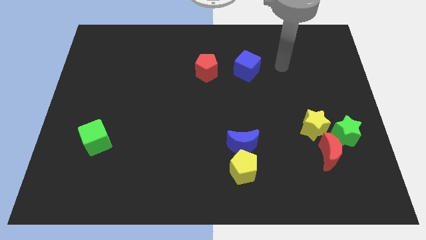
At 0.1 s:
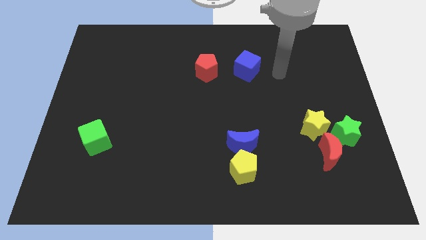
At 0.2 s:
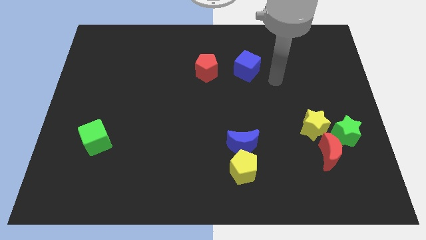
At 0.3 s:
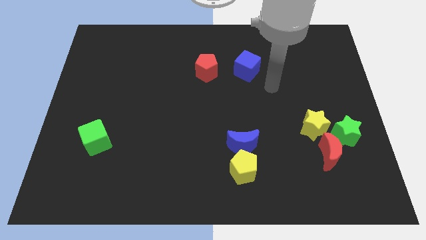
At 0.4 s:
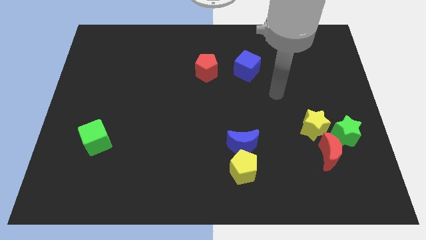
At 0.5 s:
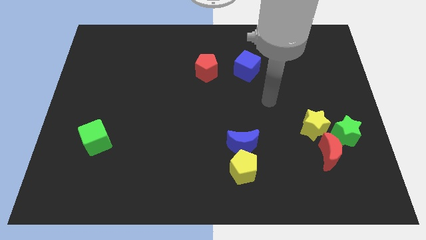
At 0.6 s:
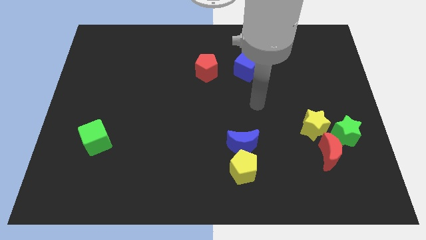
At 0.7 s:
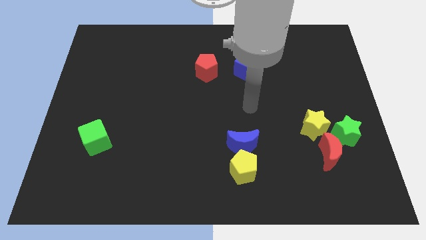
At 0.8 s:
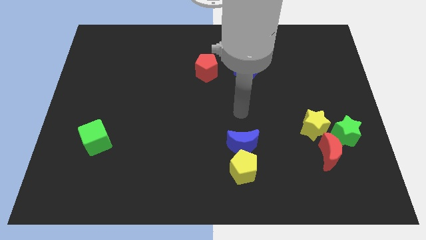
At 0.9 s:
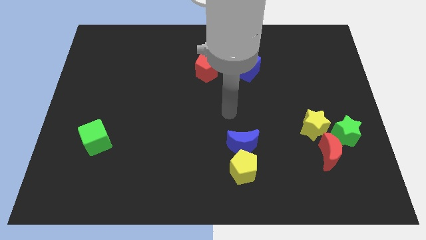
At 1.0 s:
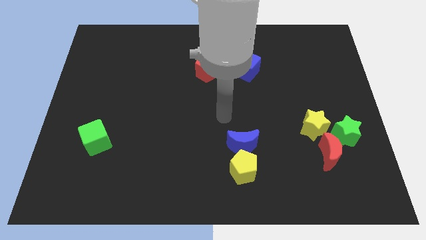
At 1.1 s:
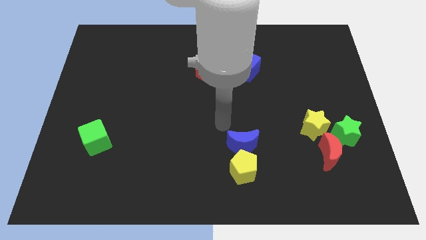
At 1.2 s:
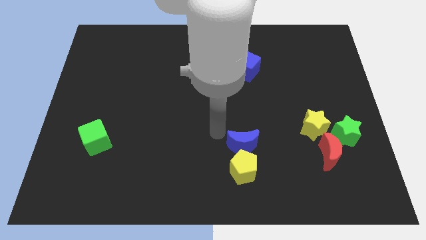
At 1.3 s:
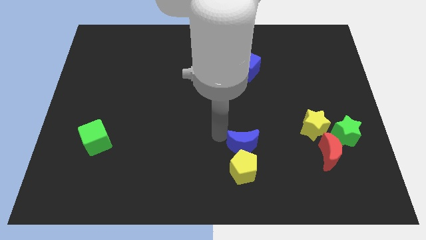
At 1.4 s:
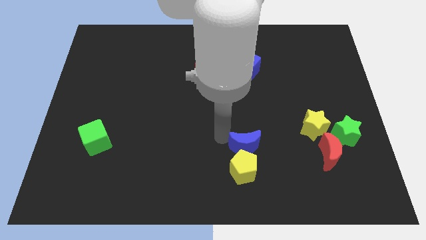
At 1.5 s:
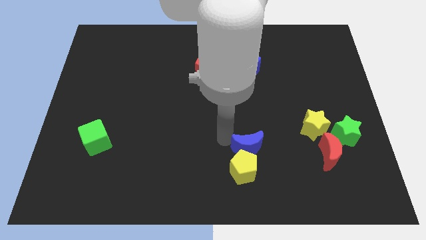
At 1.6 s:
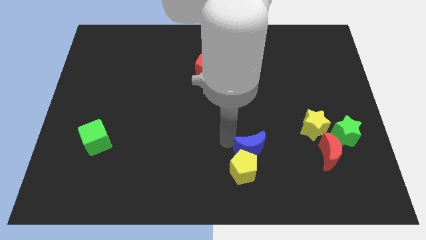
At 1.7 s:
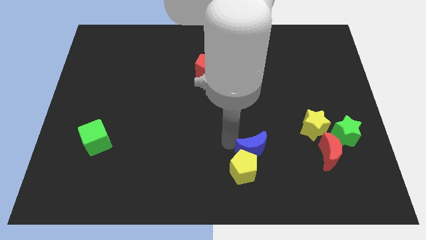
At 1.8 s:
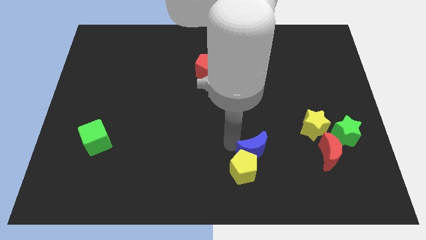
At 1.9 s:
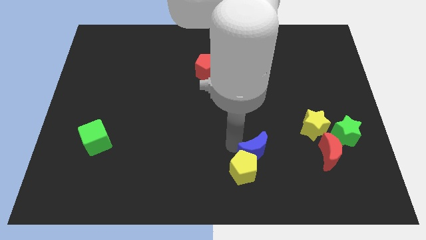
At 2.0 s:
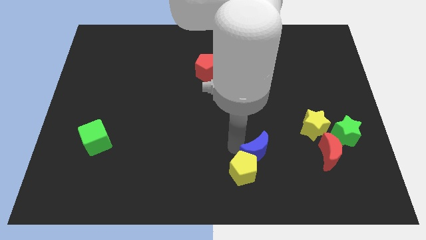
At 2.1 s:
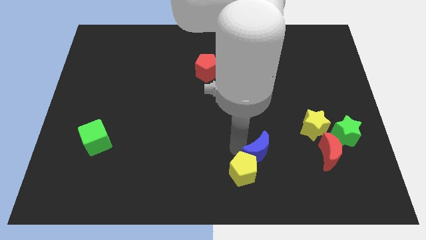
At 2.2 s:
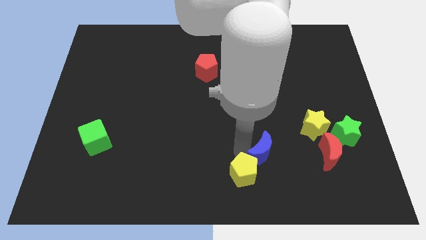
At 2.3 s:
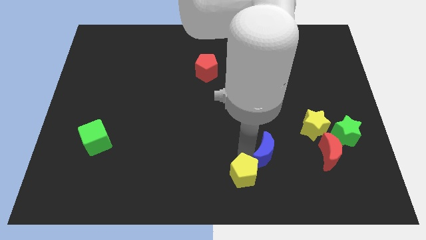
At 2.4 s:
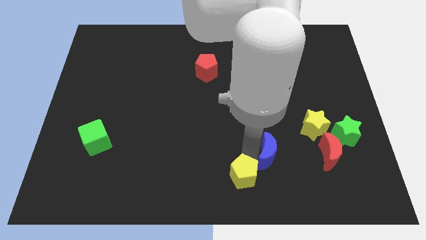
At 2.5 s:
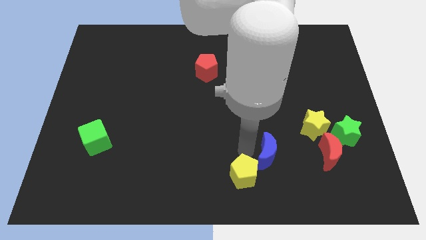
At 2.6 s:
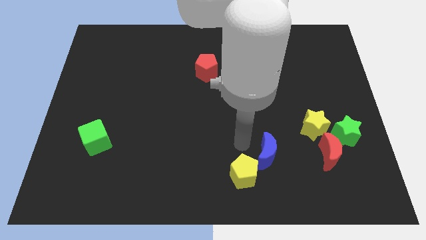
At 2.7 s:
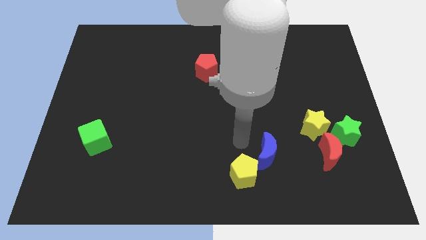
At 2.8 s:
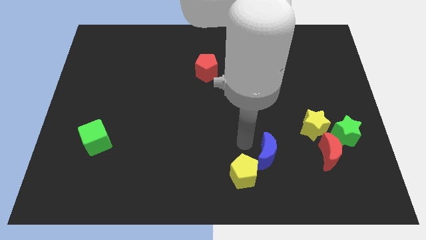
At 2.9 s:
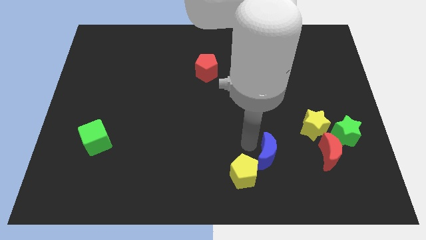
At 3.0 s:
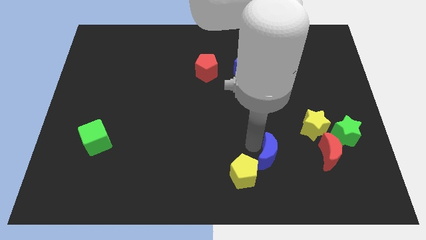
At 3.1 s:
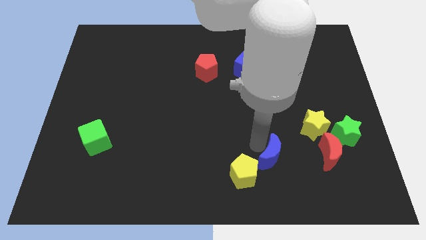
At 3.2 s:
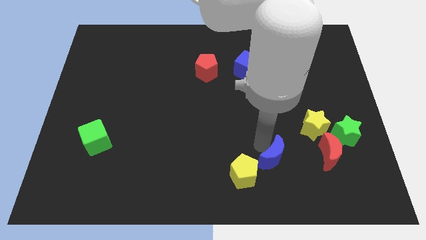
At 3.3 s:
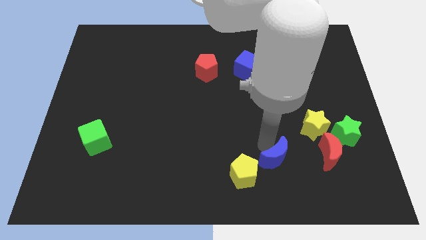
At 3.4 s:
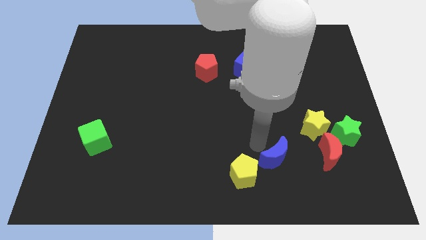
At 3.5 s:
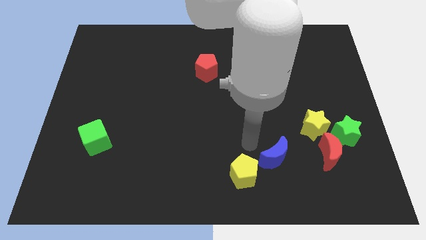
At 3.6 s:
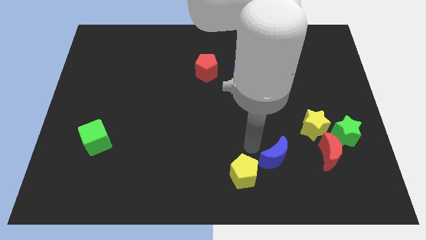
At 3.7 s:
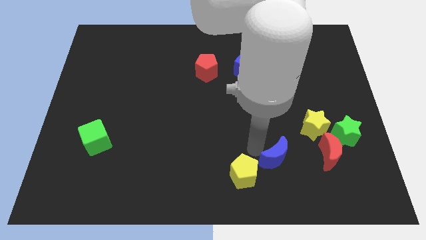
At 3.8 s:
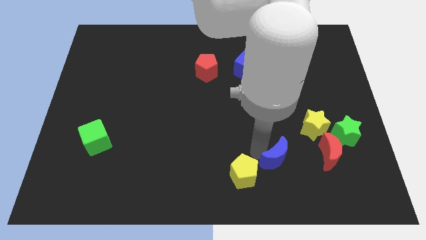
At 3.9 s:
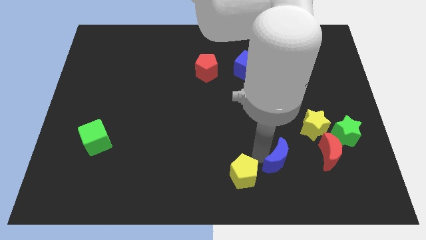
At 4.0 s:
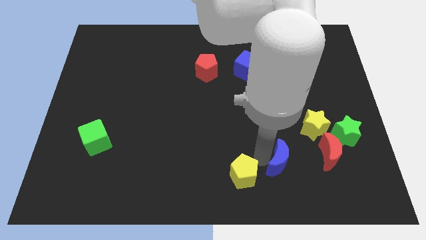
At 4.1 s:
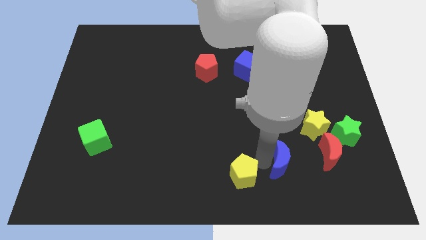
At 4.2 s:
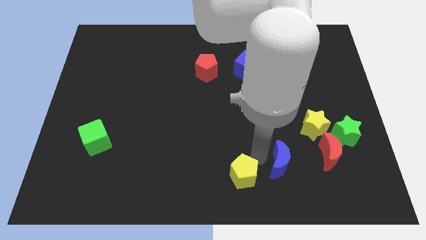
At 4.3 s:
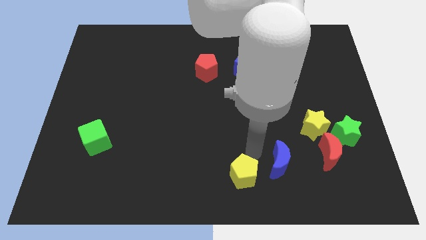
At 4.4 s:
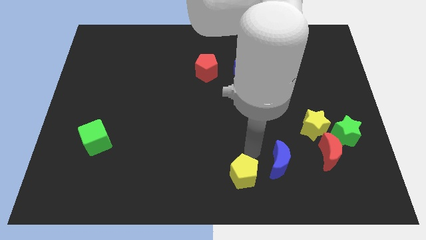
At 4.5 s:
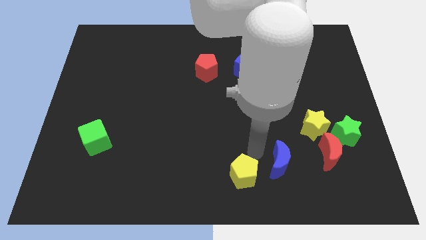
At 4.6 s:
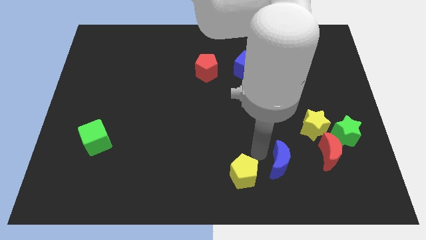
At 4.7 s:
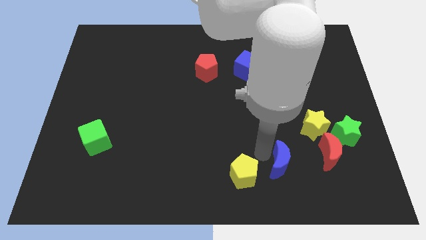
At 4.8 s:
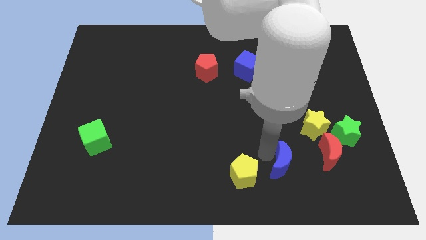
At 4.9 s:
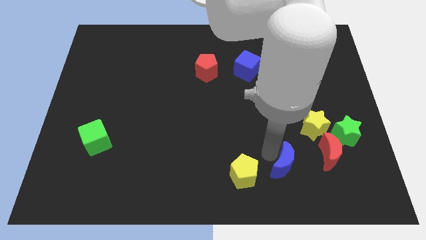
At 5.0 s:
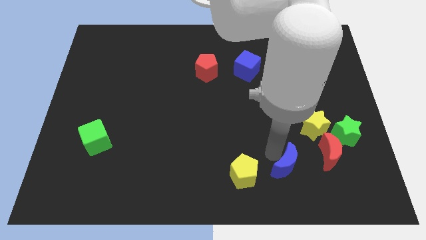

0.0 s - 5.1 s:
push the blue moon to the bottom left side of the red moon

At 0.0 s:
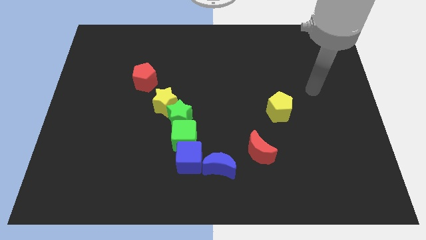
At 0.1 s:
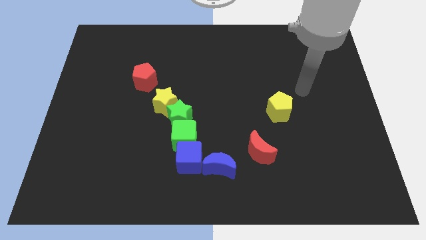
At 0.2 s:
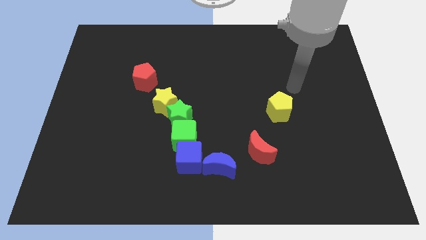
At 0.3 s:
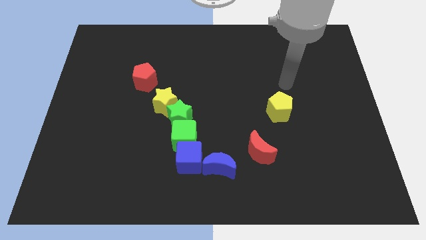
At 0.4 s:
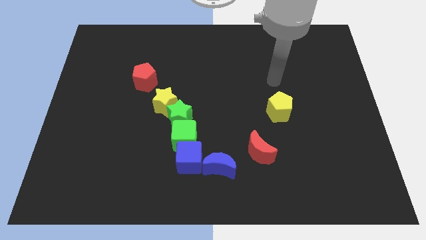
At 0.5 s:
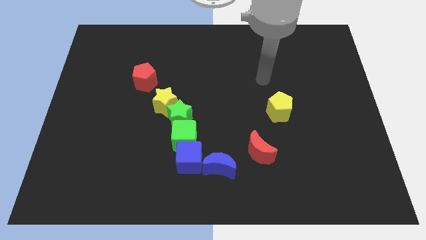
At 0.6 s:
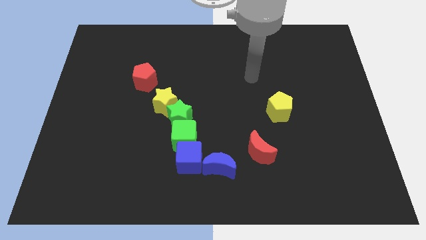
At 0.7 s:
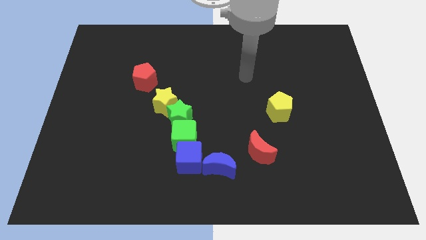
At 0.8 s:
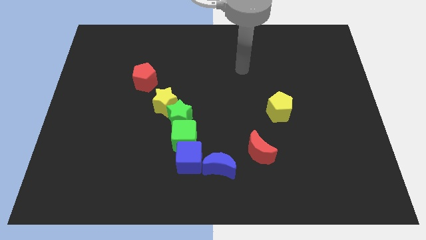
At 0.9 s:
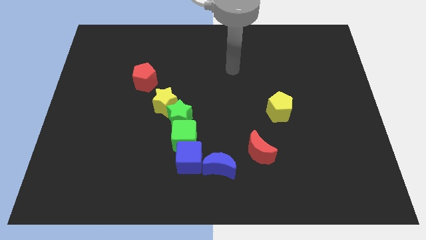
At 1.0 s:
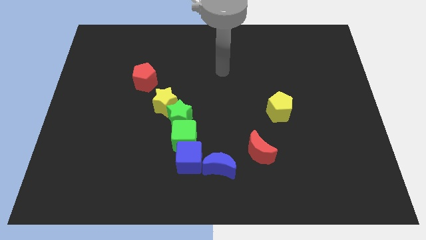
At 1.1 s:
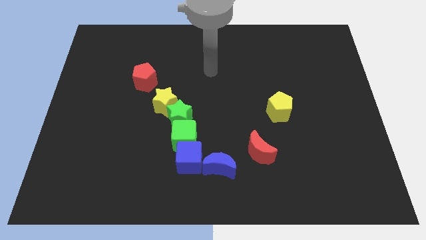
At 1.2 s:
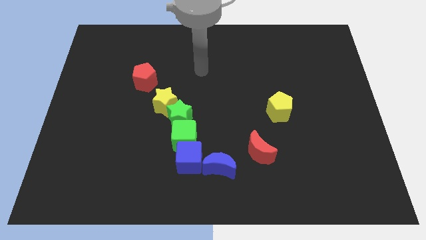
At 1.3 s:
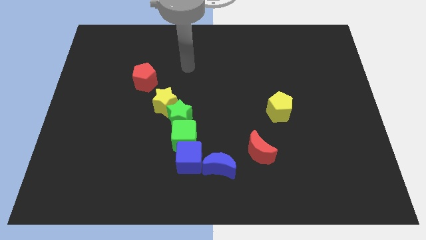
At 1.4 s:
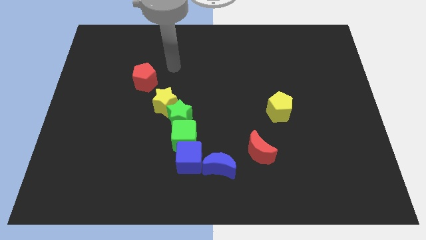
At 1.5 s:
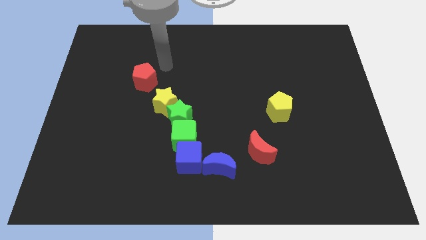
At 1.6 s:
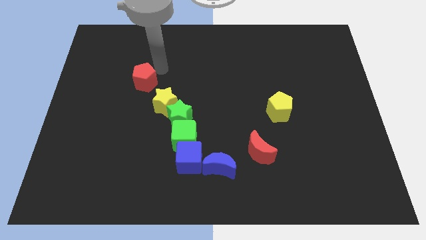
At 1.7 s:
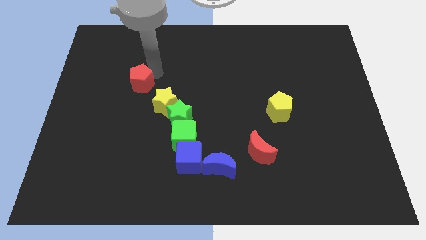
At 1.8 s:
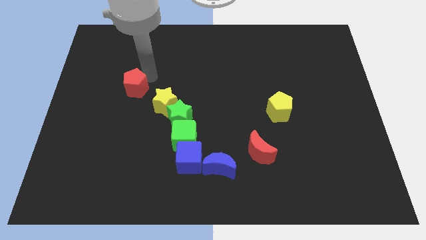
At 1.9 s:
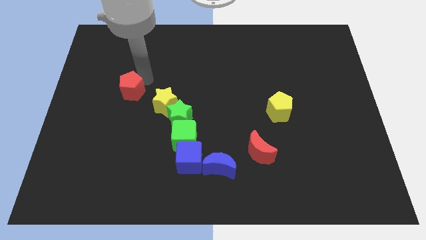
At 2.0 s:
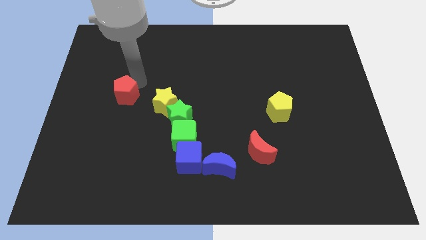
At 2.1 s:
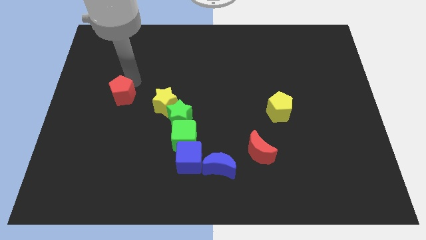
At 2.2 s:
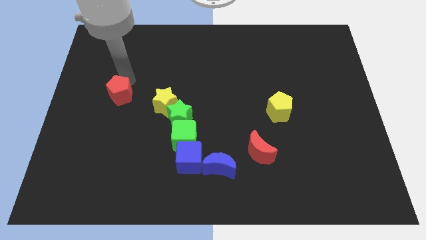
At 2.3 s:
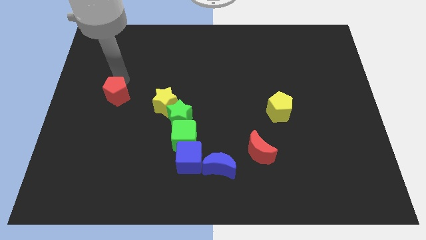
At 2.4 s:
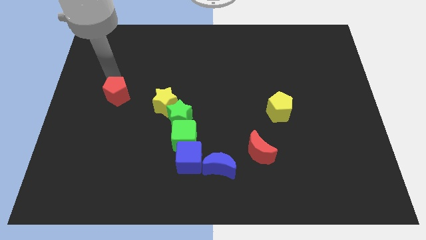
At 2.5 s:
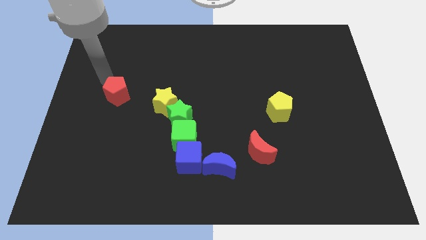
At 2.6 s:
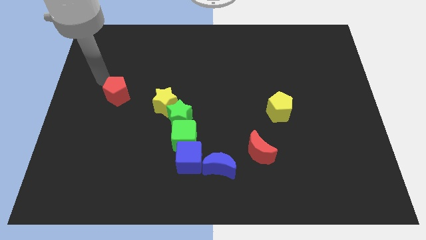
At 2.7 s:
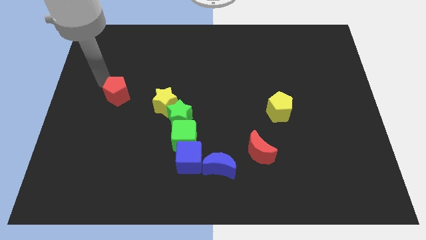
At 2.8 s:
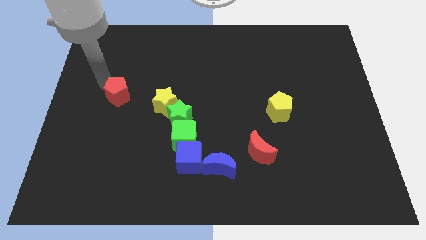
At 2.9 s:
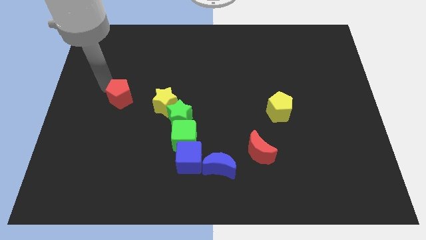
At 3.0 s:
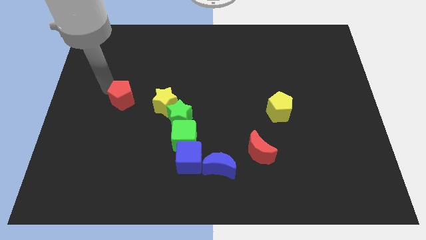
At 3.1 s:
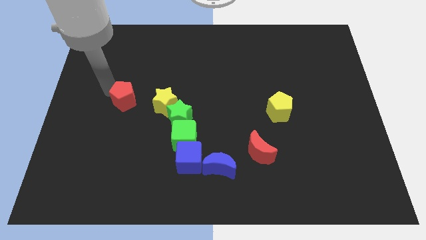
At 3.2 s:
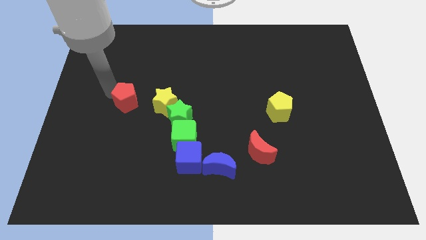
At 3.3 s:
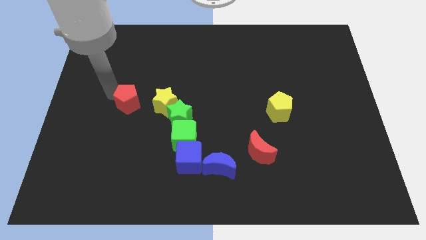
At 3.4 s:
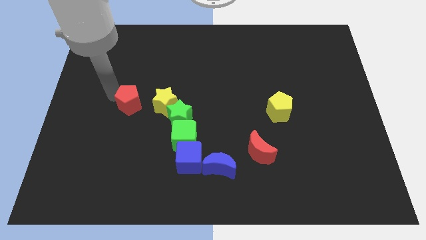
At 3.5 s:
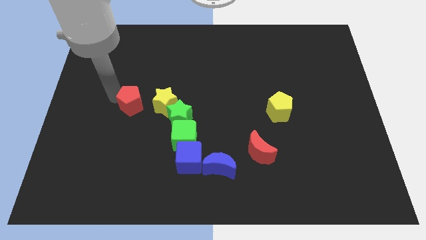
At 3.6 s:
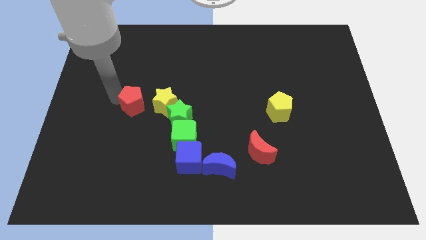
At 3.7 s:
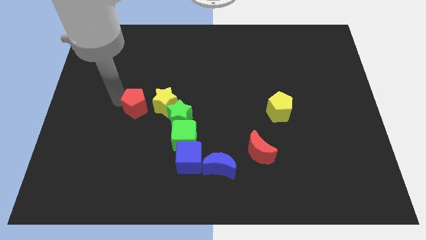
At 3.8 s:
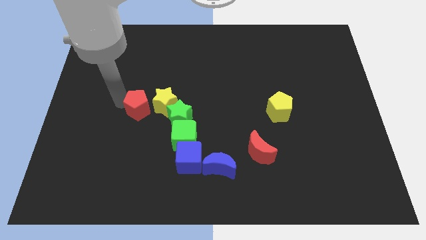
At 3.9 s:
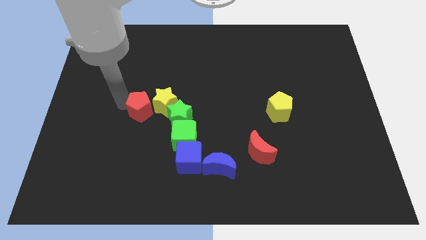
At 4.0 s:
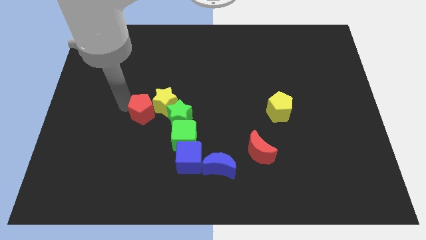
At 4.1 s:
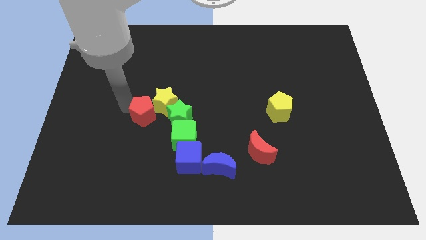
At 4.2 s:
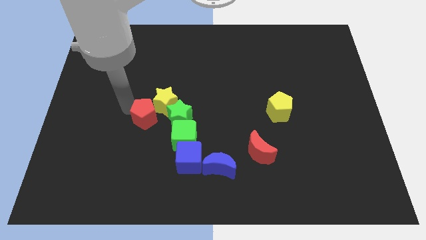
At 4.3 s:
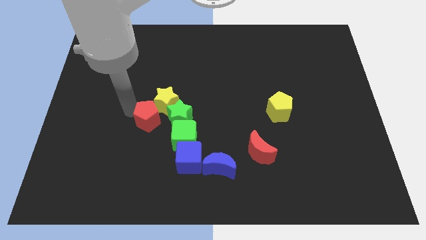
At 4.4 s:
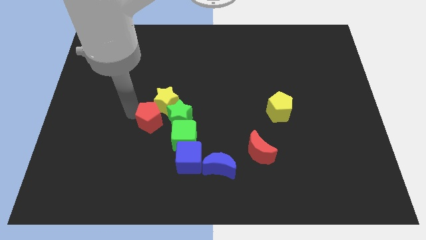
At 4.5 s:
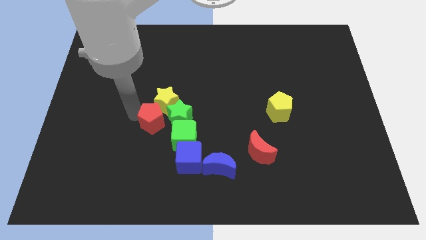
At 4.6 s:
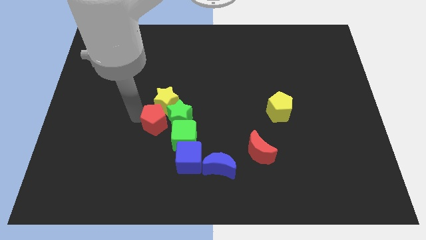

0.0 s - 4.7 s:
slide the red pentagon to the top left side of the blue cube
